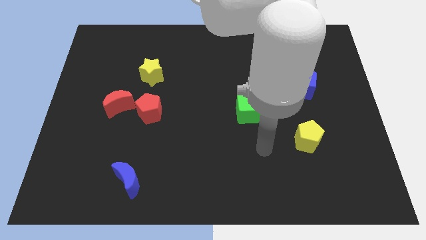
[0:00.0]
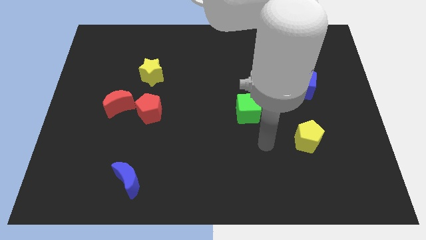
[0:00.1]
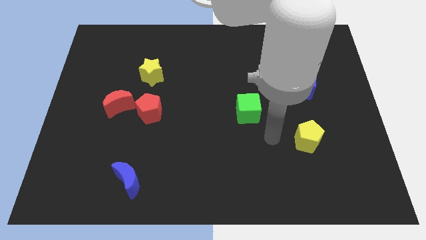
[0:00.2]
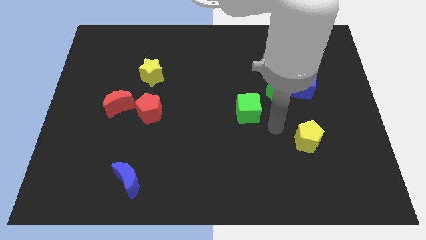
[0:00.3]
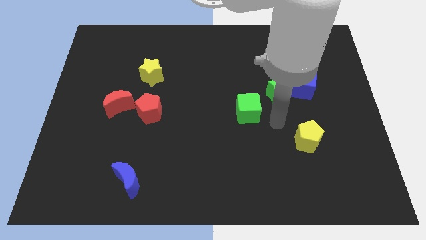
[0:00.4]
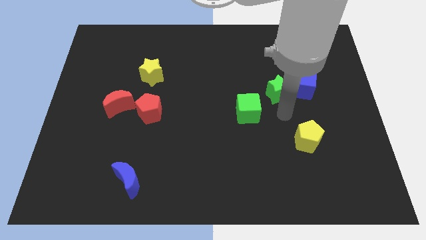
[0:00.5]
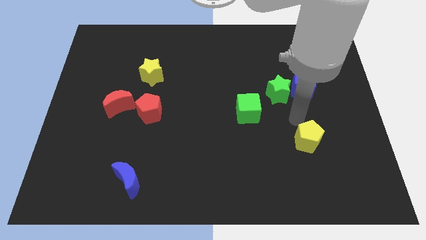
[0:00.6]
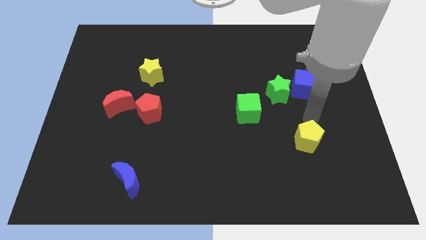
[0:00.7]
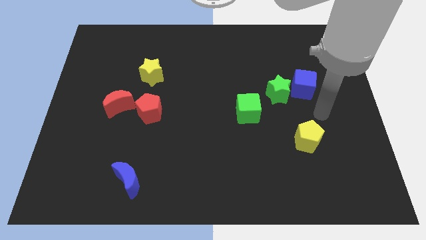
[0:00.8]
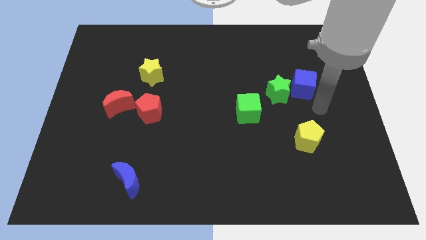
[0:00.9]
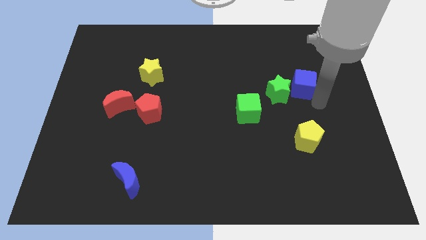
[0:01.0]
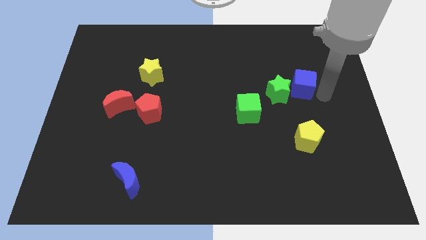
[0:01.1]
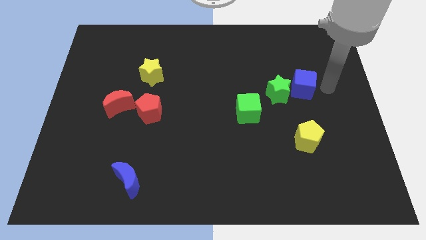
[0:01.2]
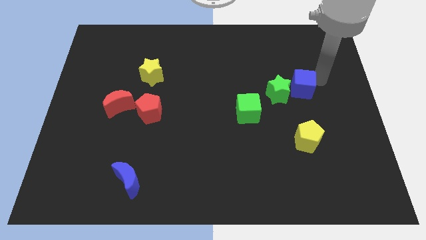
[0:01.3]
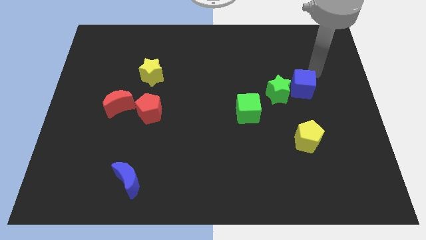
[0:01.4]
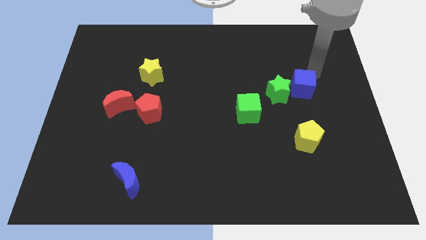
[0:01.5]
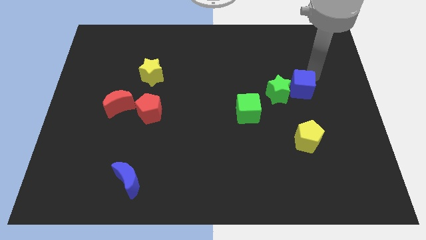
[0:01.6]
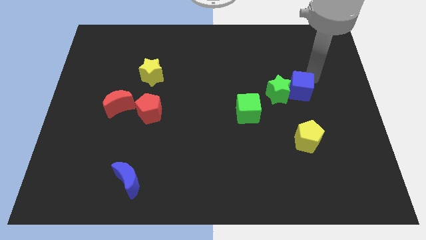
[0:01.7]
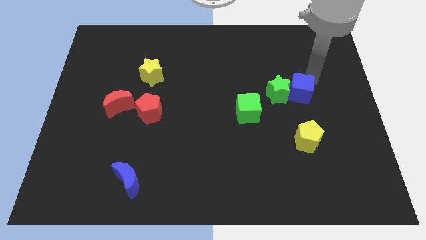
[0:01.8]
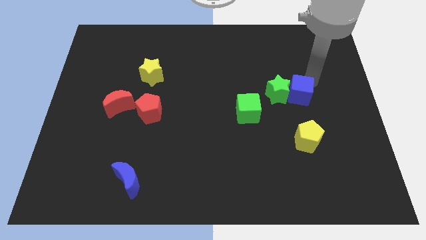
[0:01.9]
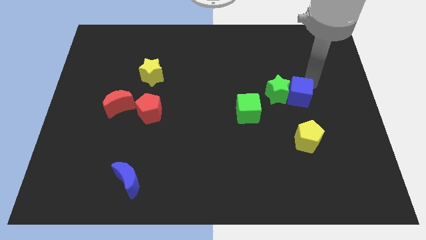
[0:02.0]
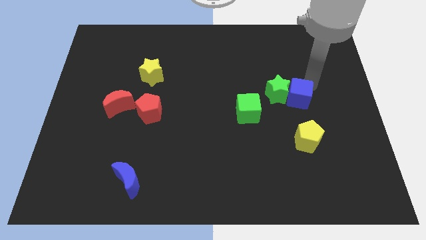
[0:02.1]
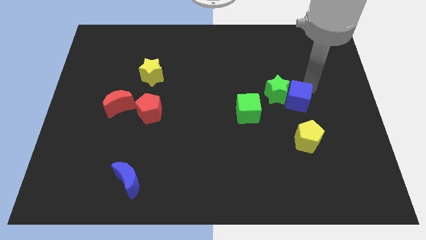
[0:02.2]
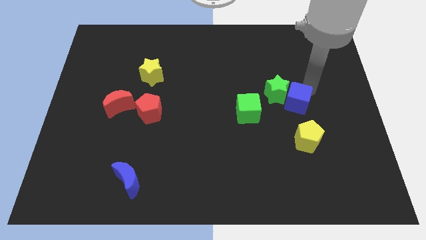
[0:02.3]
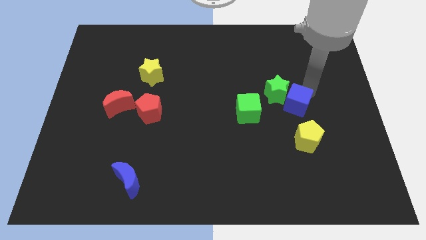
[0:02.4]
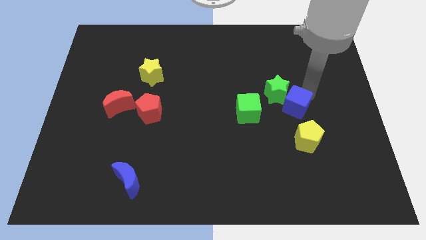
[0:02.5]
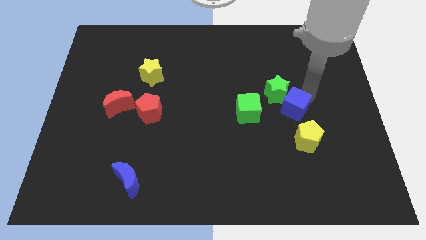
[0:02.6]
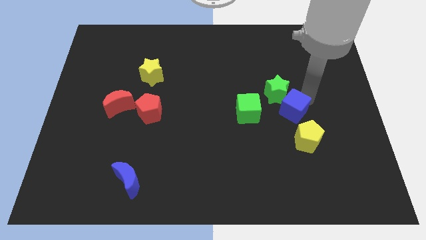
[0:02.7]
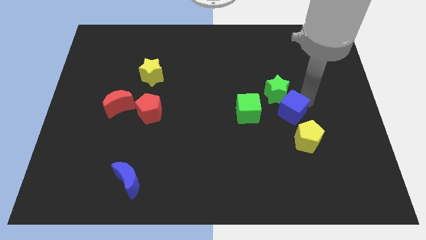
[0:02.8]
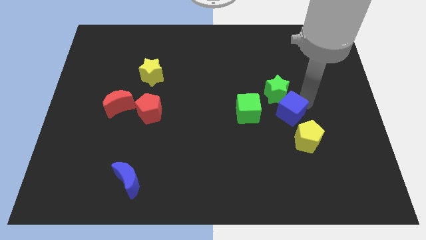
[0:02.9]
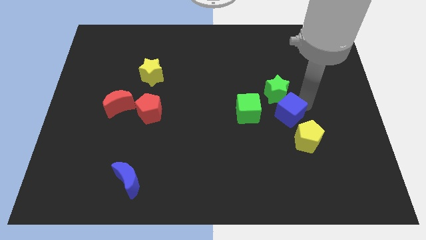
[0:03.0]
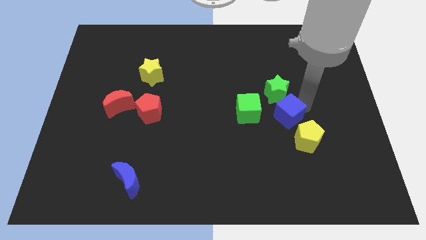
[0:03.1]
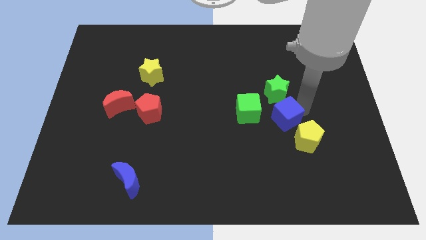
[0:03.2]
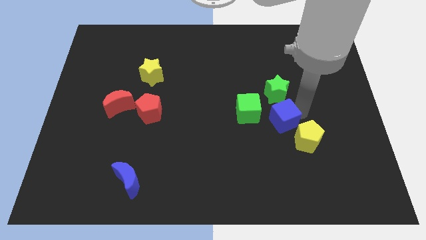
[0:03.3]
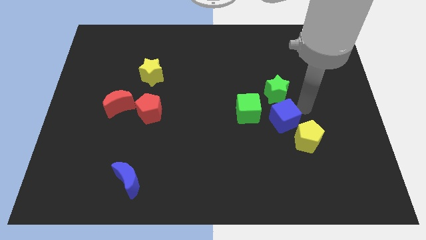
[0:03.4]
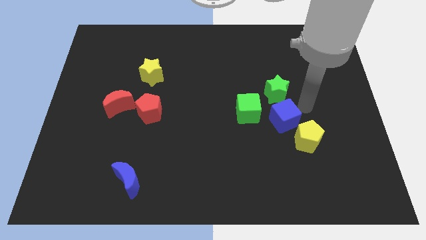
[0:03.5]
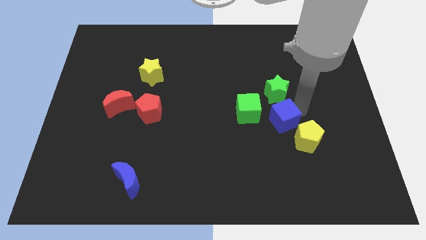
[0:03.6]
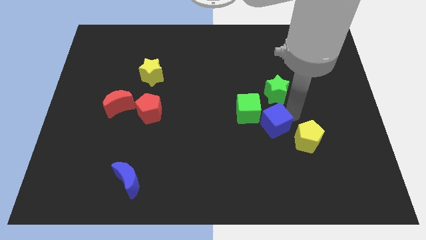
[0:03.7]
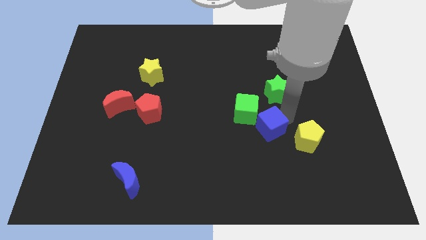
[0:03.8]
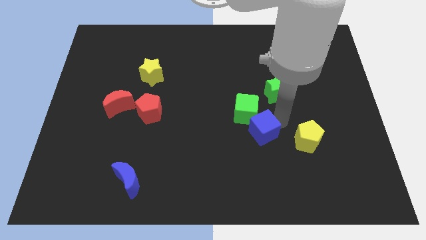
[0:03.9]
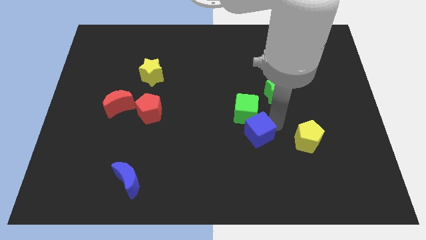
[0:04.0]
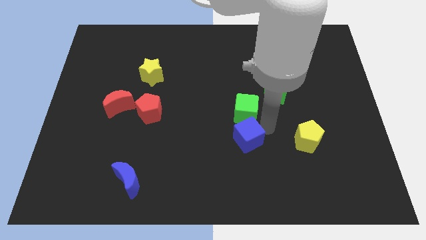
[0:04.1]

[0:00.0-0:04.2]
move the blue cube downwards and left diagonally

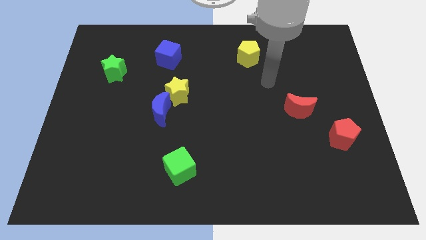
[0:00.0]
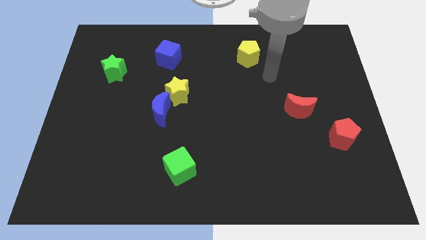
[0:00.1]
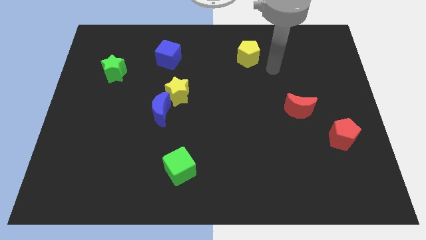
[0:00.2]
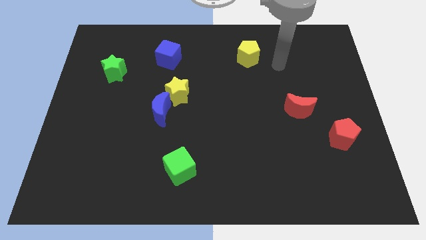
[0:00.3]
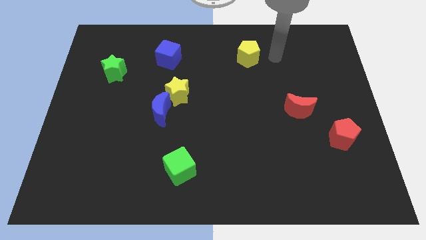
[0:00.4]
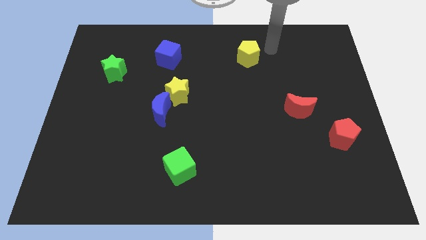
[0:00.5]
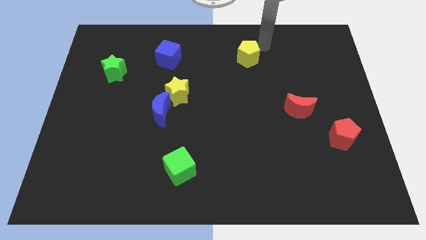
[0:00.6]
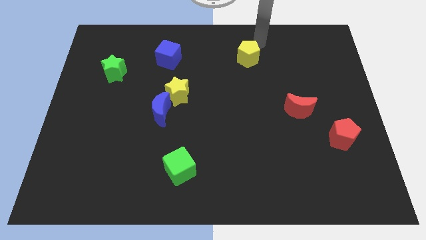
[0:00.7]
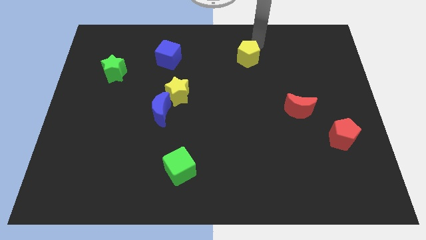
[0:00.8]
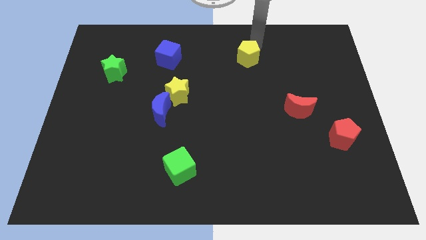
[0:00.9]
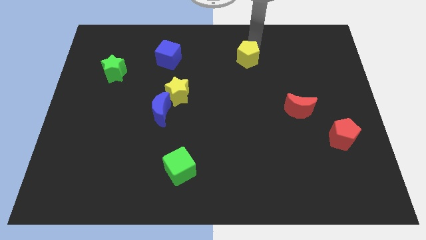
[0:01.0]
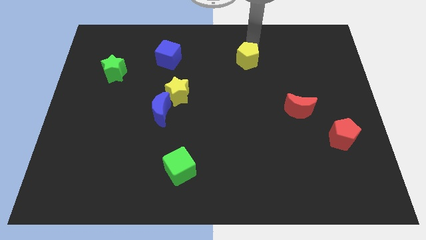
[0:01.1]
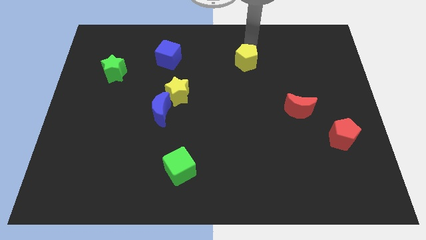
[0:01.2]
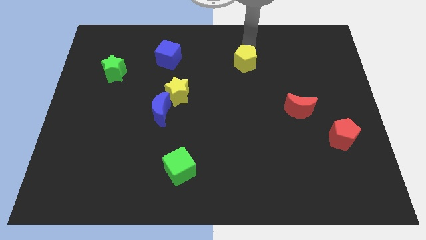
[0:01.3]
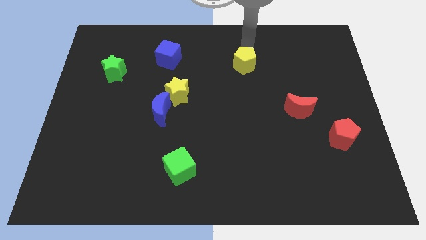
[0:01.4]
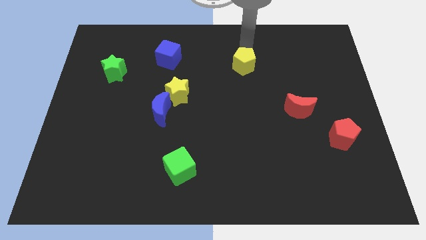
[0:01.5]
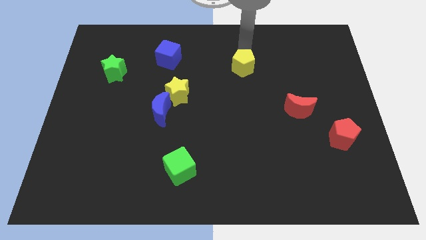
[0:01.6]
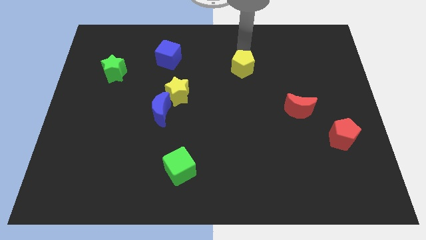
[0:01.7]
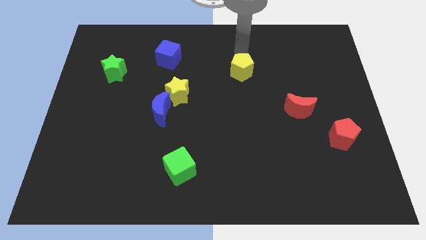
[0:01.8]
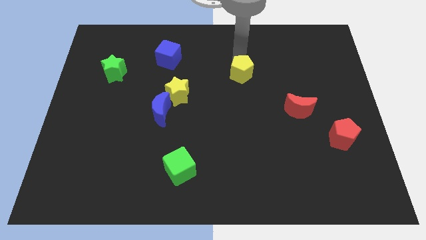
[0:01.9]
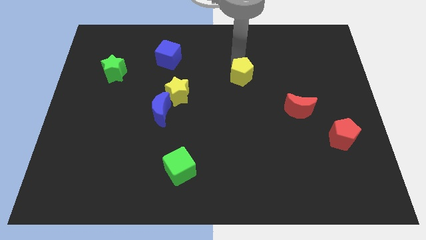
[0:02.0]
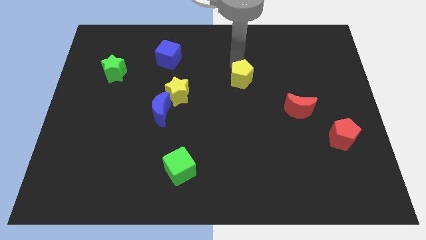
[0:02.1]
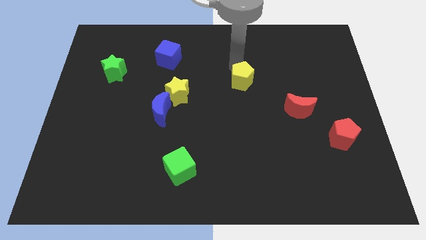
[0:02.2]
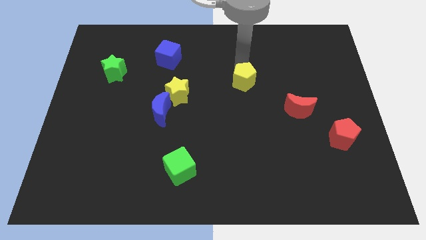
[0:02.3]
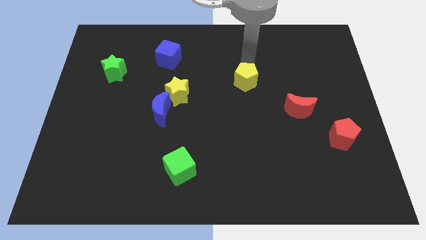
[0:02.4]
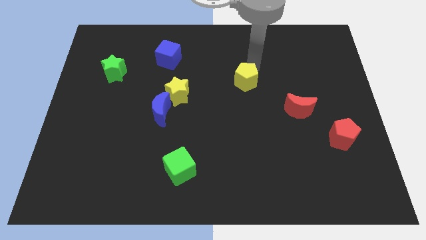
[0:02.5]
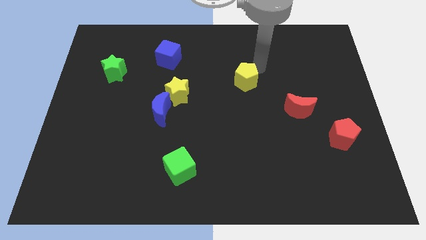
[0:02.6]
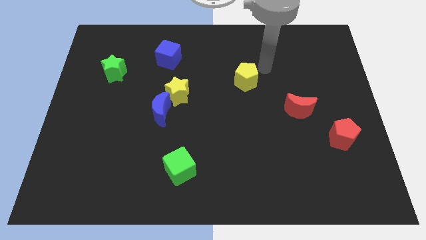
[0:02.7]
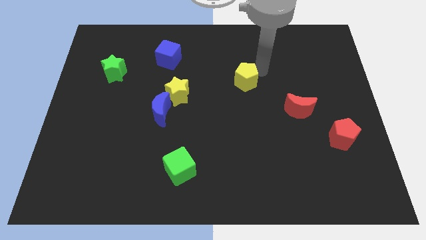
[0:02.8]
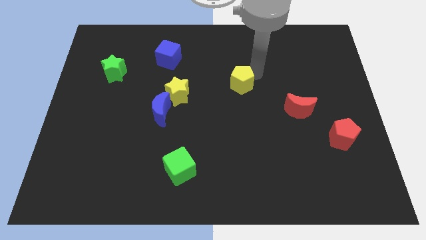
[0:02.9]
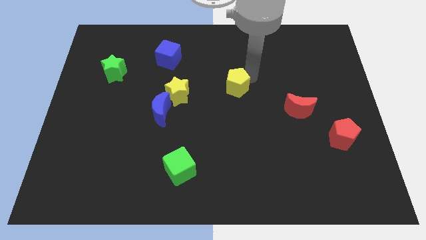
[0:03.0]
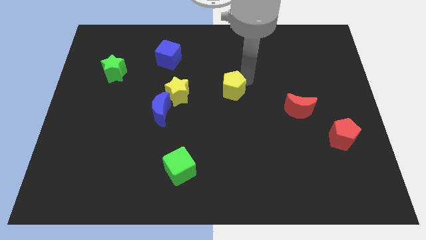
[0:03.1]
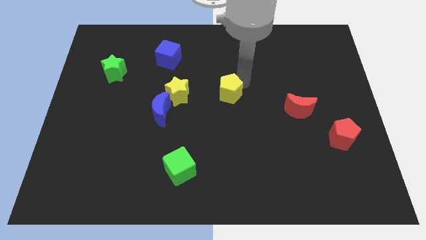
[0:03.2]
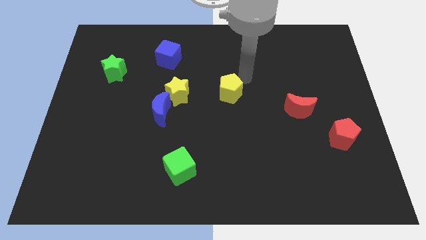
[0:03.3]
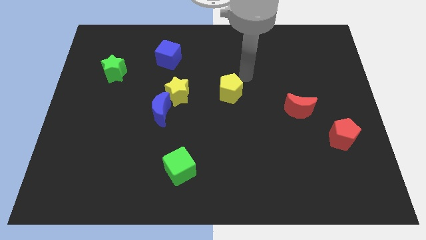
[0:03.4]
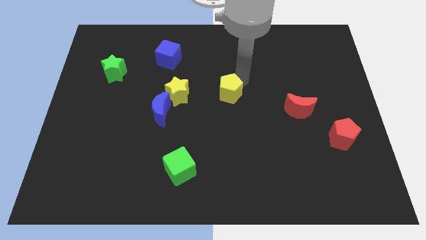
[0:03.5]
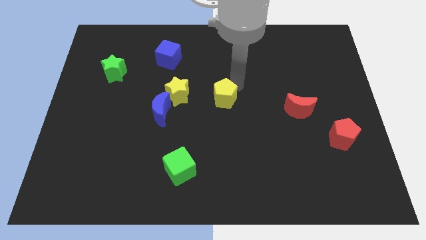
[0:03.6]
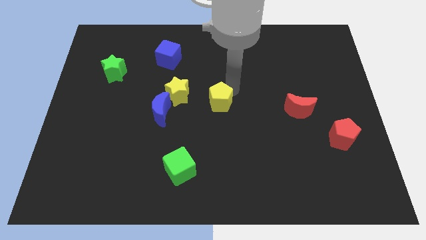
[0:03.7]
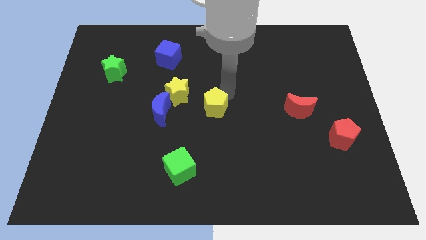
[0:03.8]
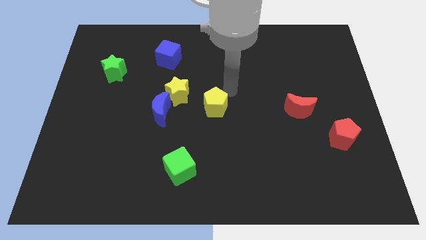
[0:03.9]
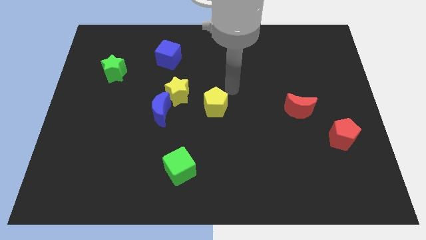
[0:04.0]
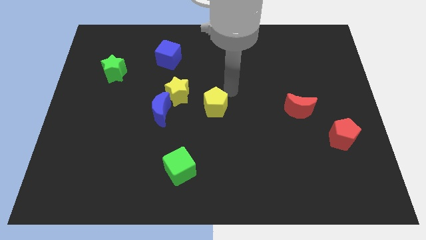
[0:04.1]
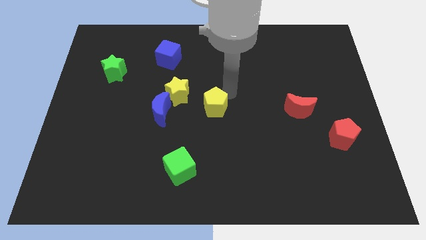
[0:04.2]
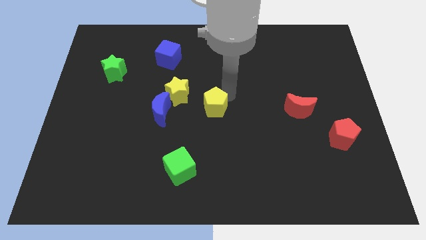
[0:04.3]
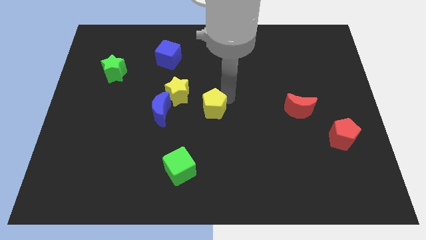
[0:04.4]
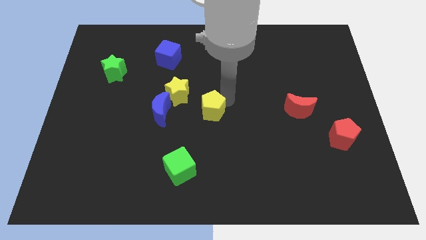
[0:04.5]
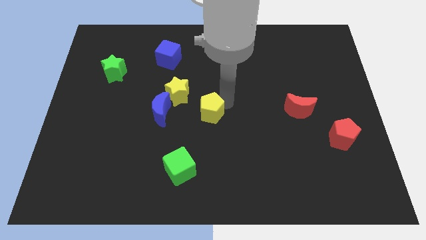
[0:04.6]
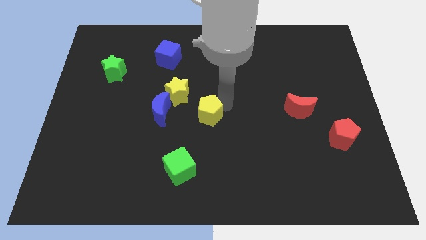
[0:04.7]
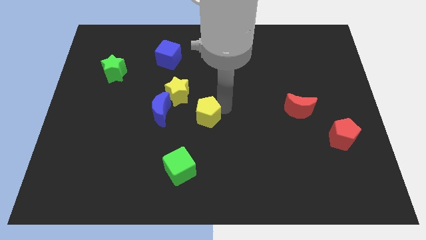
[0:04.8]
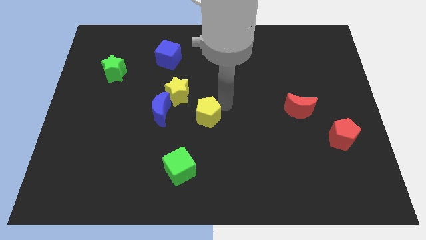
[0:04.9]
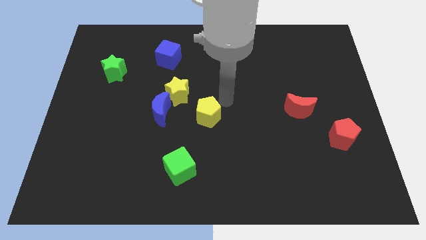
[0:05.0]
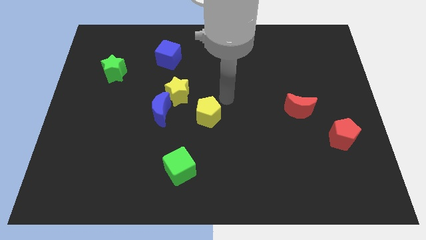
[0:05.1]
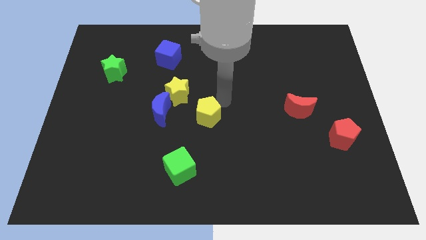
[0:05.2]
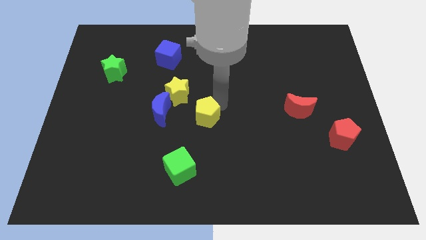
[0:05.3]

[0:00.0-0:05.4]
slide the yellow pentagon down and left diagonally
